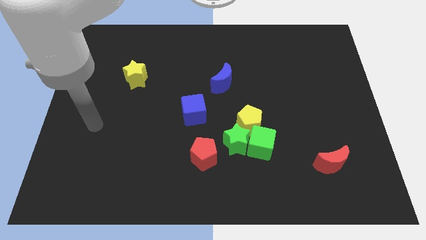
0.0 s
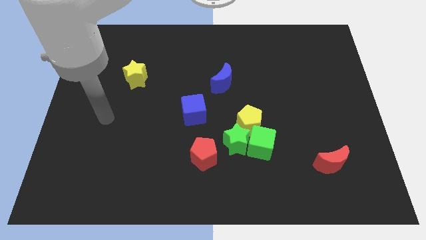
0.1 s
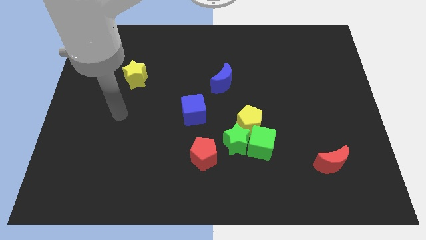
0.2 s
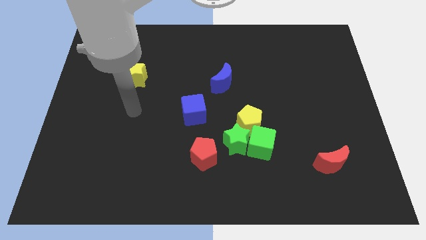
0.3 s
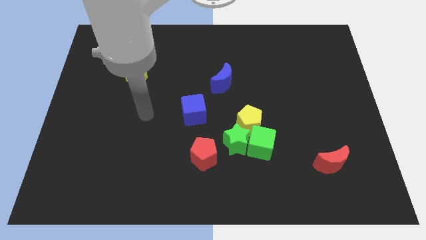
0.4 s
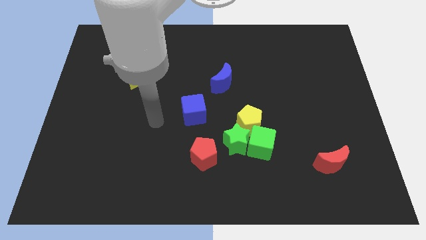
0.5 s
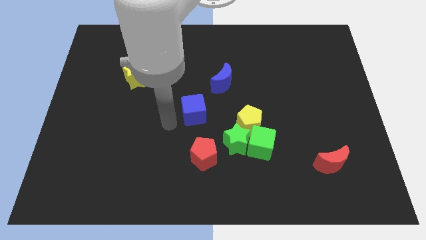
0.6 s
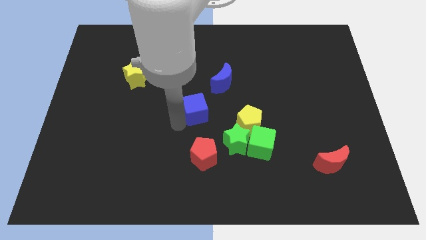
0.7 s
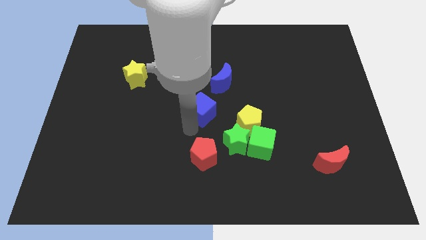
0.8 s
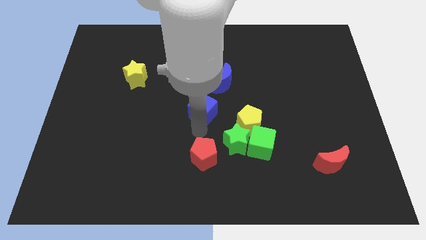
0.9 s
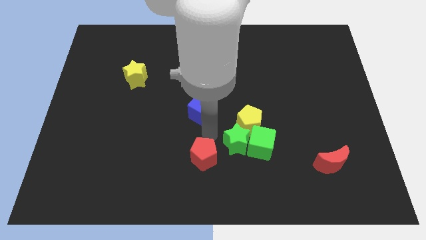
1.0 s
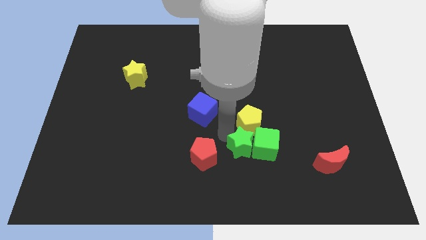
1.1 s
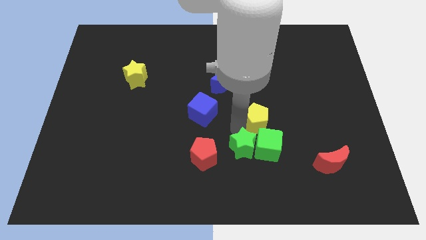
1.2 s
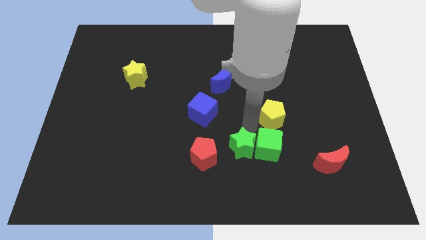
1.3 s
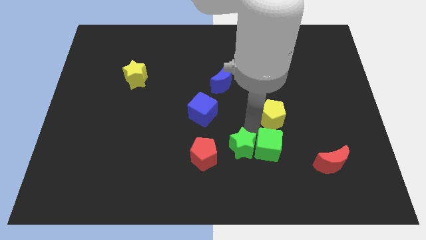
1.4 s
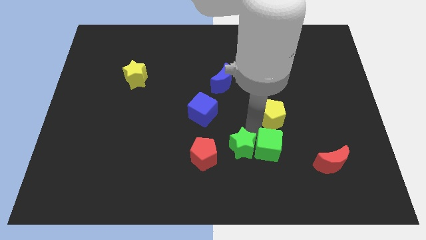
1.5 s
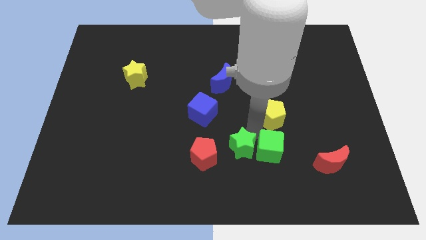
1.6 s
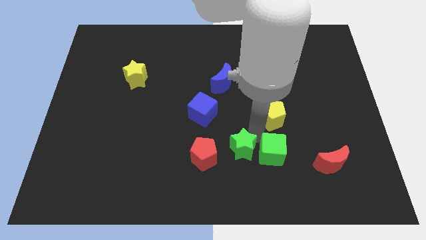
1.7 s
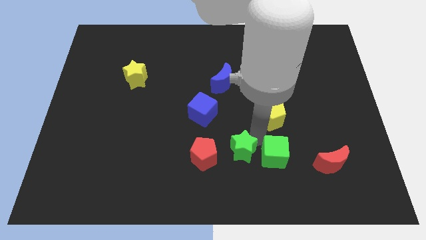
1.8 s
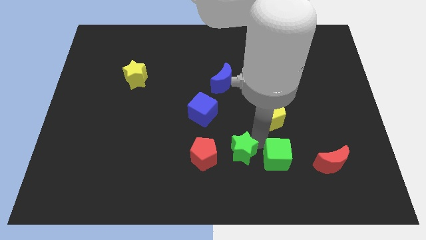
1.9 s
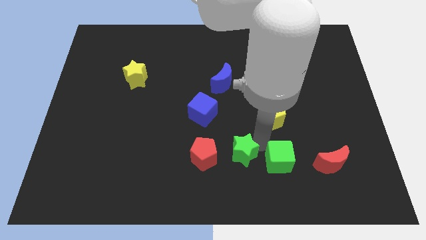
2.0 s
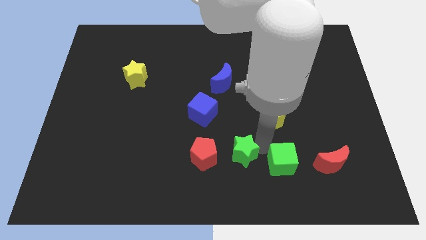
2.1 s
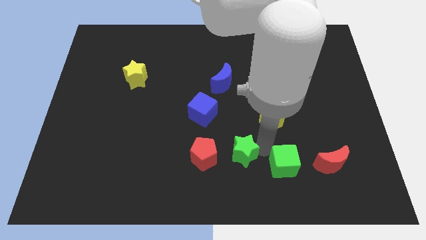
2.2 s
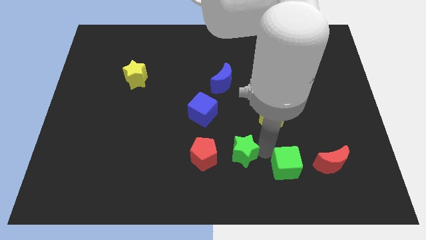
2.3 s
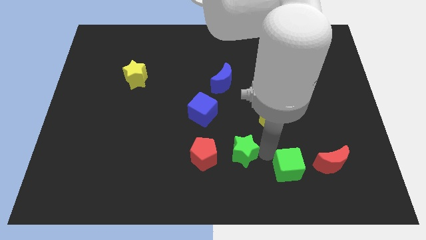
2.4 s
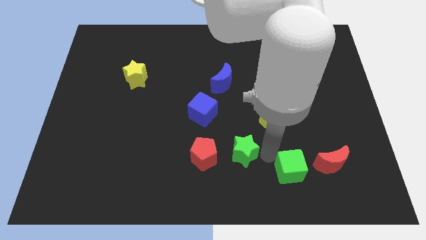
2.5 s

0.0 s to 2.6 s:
move the green cube away from the green star and yellow pentagon

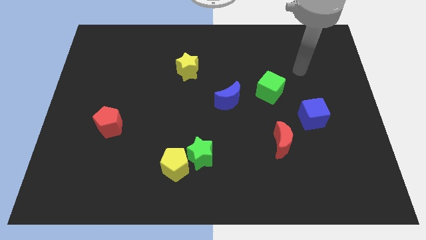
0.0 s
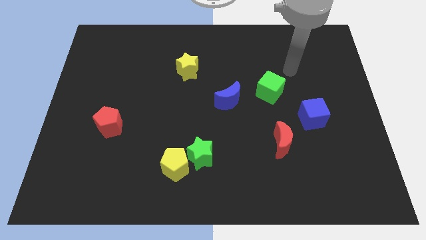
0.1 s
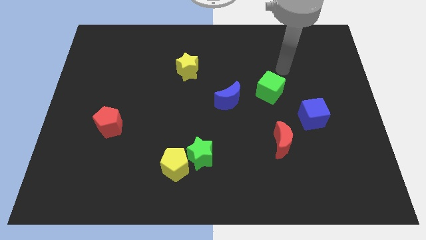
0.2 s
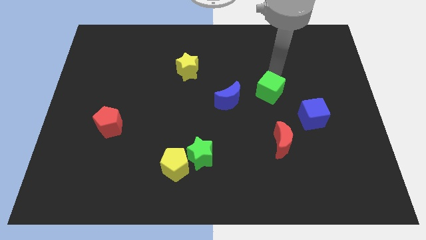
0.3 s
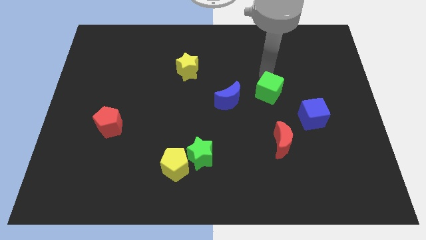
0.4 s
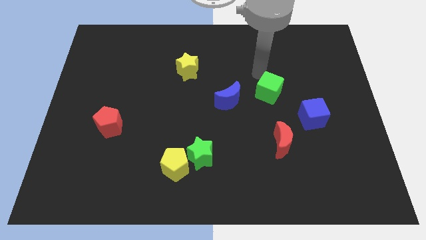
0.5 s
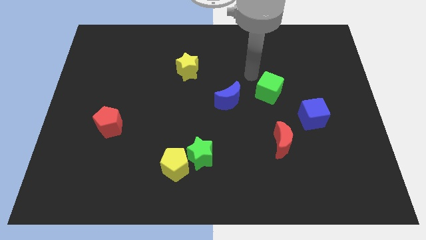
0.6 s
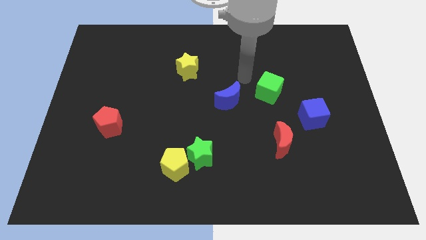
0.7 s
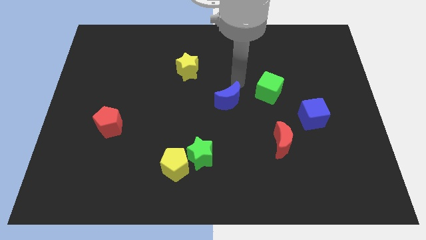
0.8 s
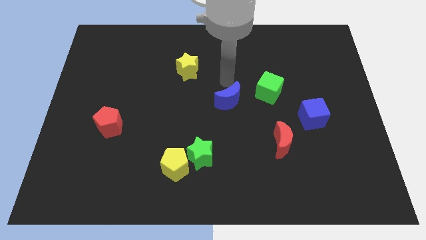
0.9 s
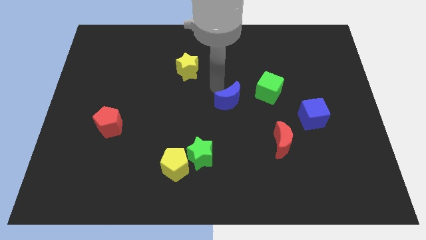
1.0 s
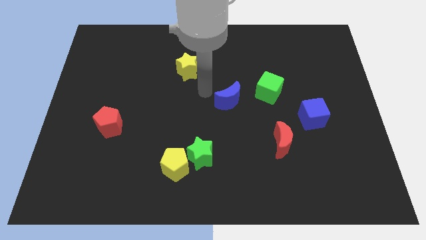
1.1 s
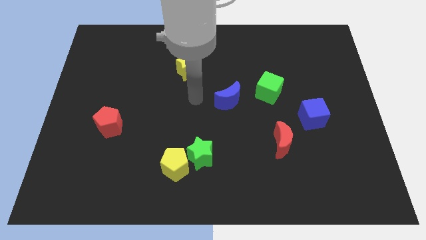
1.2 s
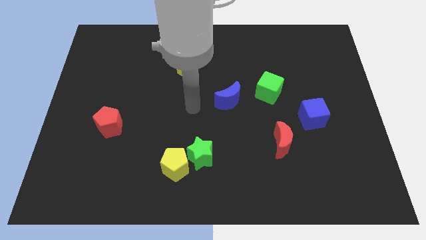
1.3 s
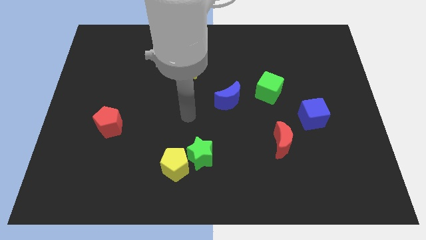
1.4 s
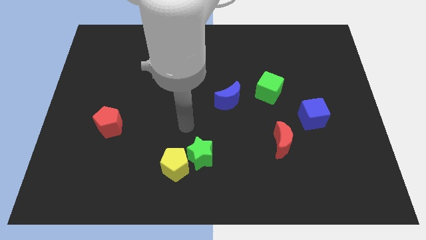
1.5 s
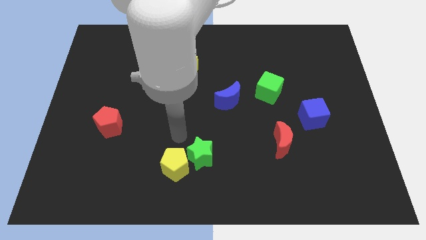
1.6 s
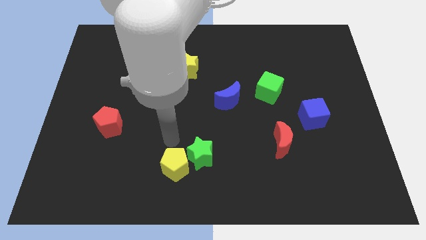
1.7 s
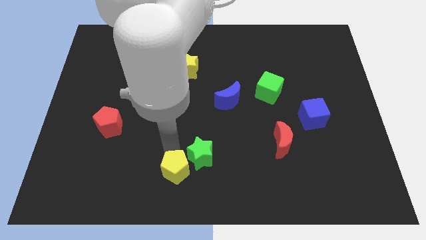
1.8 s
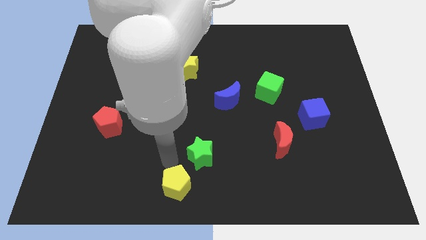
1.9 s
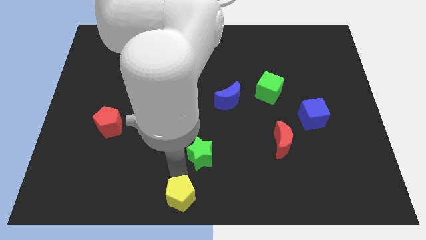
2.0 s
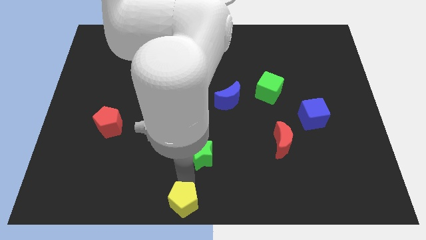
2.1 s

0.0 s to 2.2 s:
move the green star away from the yellow pentagon

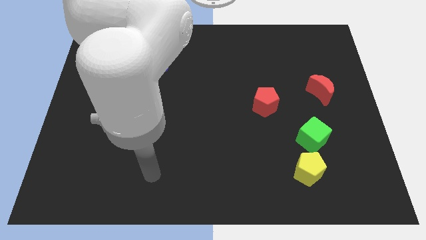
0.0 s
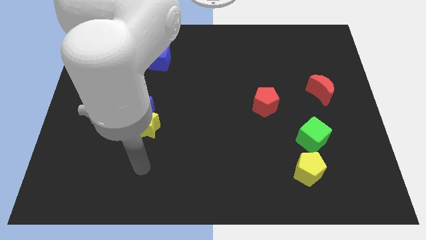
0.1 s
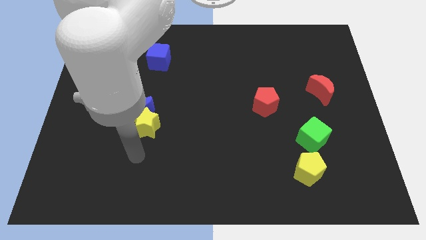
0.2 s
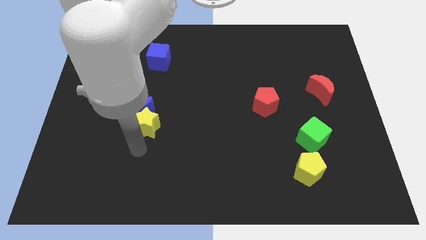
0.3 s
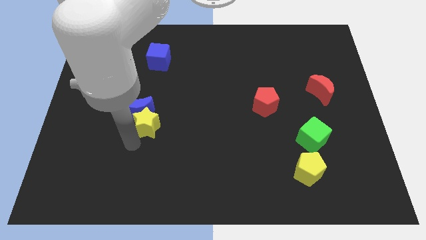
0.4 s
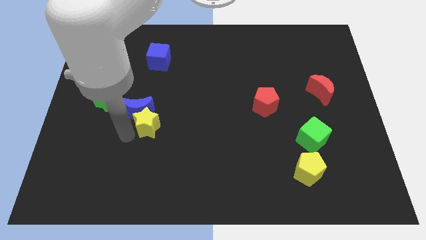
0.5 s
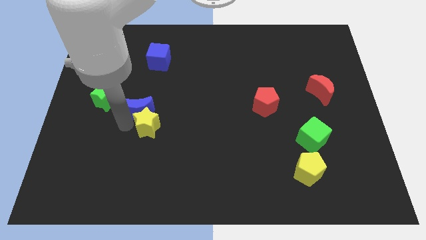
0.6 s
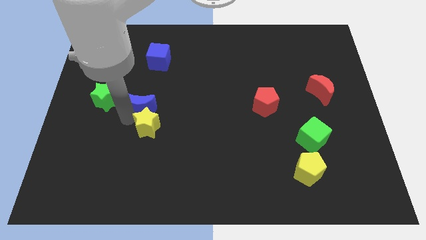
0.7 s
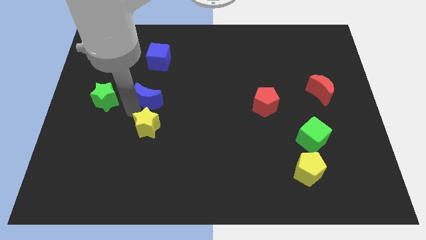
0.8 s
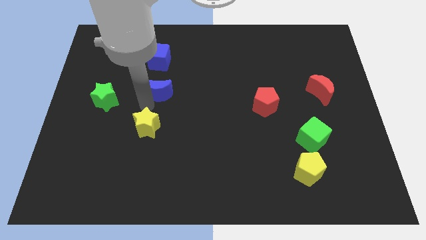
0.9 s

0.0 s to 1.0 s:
pull the yellow star apart from the blue moon

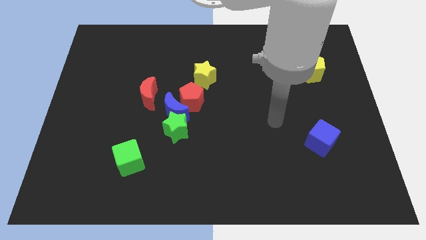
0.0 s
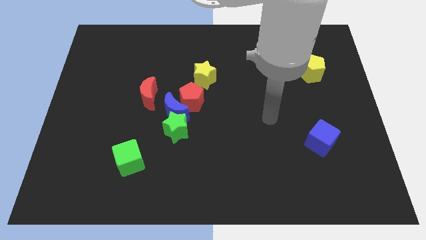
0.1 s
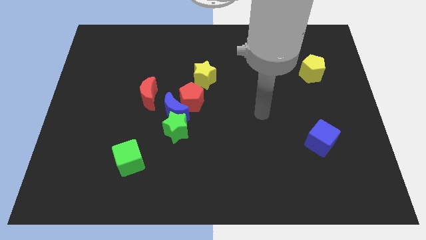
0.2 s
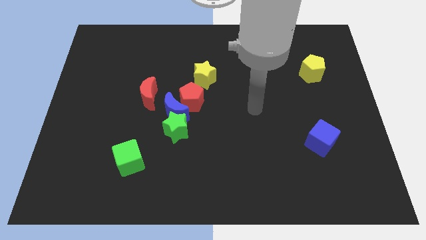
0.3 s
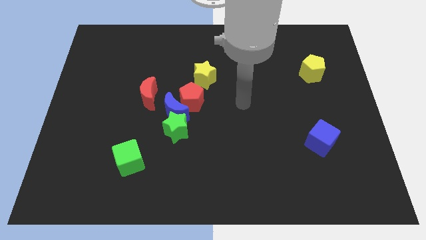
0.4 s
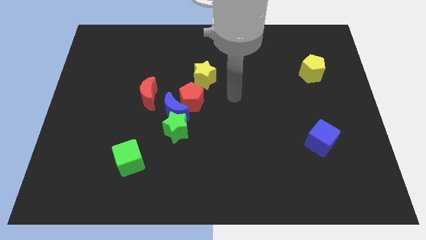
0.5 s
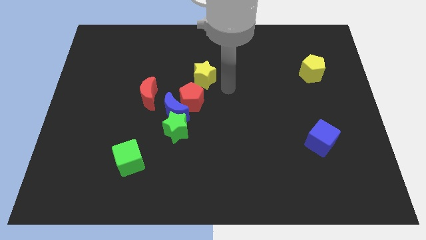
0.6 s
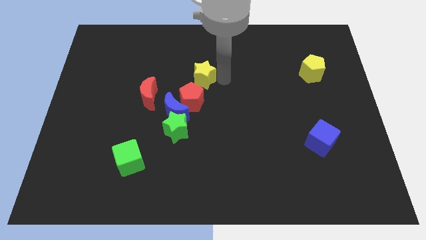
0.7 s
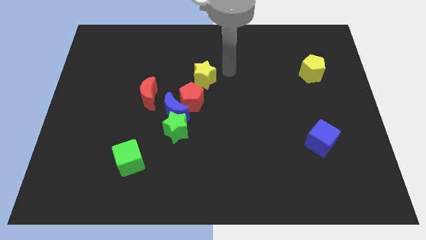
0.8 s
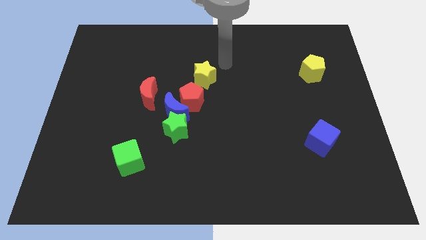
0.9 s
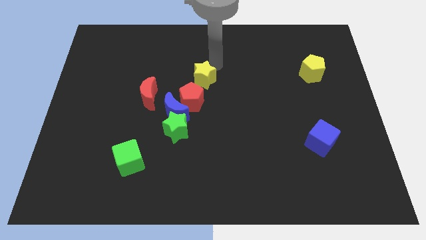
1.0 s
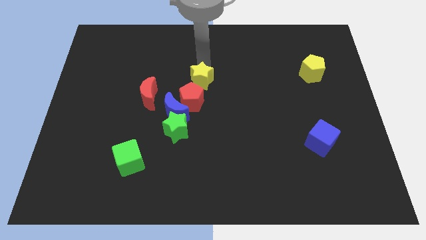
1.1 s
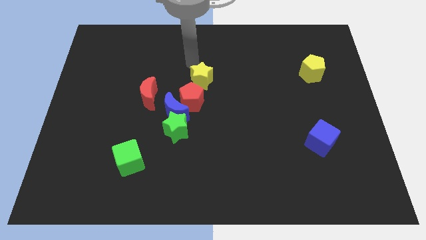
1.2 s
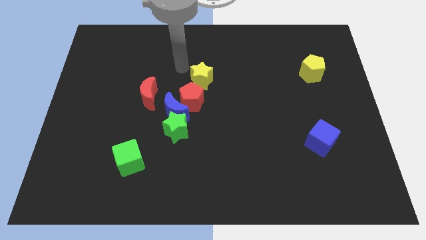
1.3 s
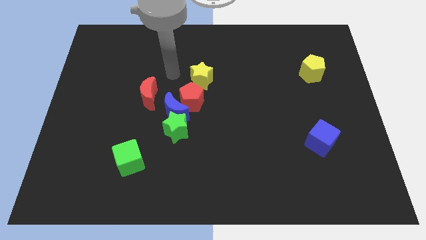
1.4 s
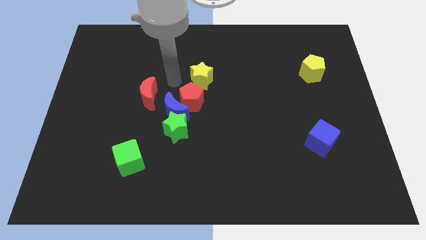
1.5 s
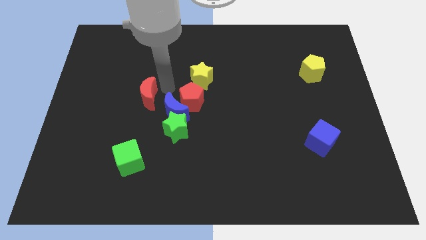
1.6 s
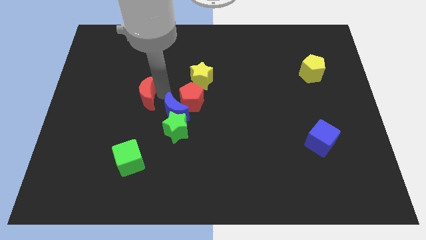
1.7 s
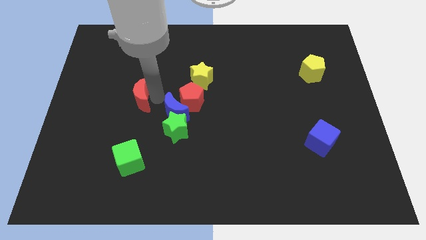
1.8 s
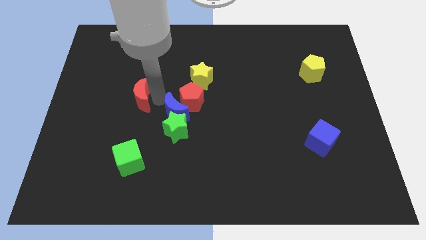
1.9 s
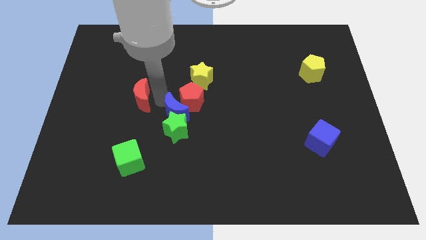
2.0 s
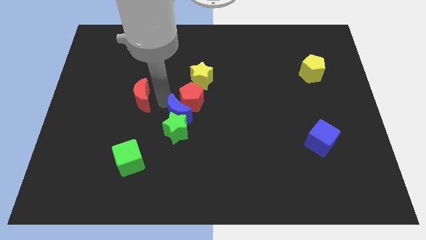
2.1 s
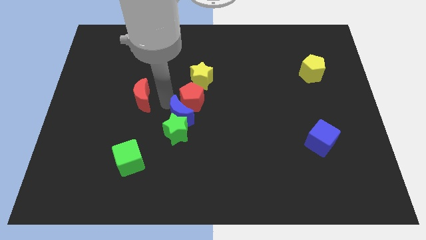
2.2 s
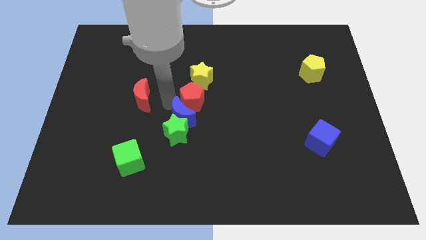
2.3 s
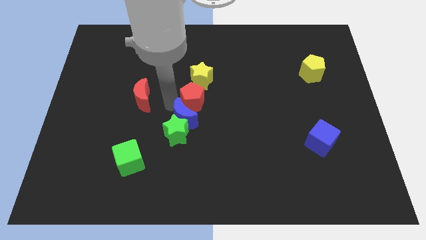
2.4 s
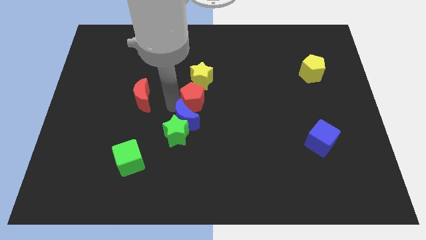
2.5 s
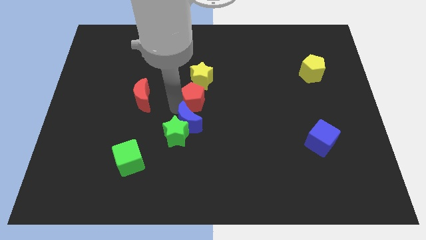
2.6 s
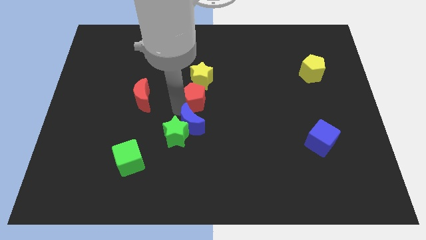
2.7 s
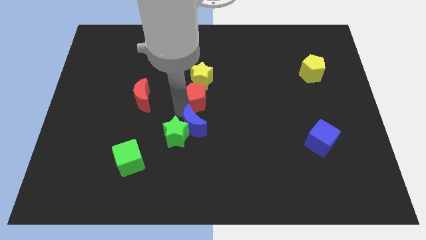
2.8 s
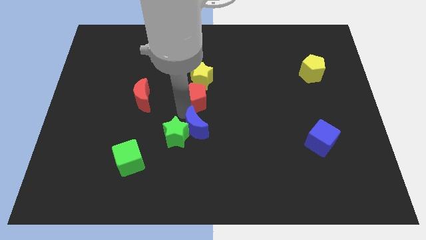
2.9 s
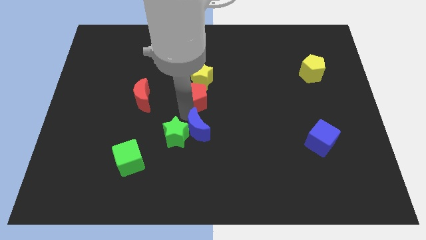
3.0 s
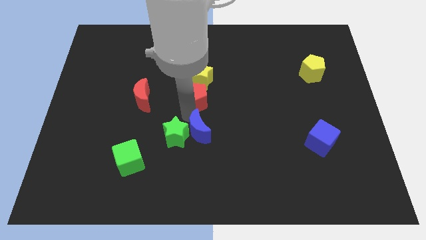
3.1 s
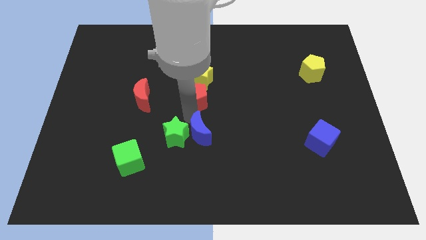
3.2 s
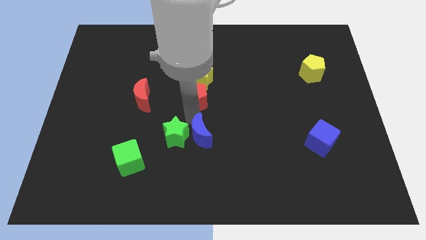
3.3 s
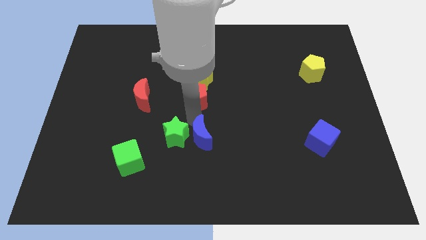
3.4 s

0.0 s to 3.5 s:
move the blue moon away from the green star, red pentagon, and red moon
